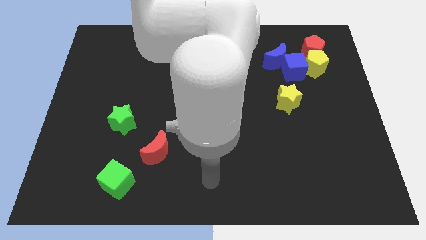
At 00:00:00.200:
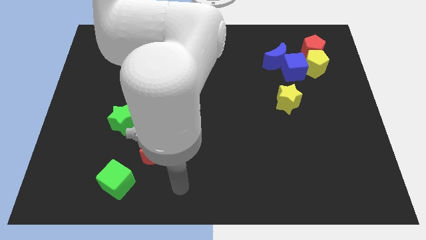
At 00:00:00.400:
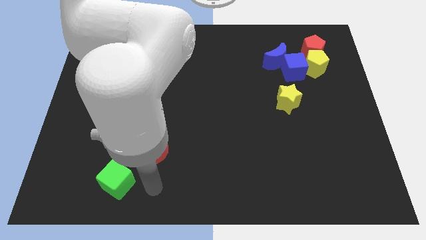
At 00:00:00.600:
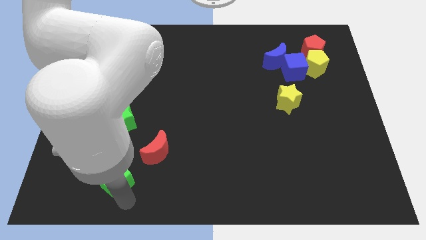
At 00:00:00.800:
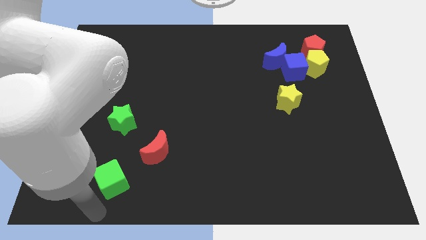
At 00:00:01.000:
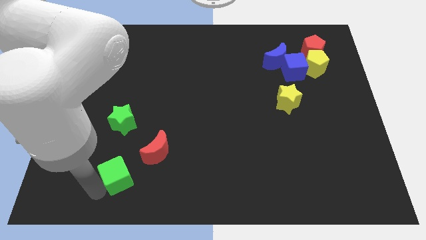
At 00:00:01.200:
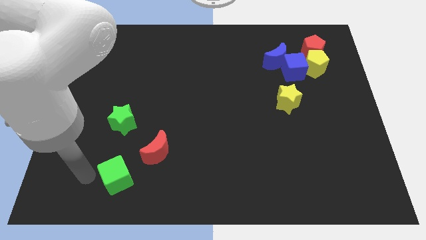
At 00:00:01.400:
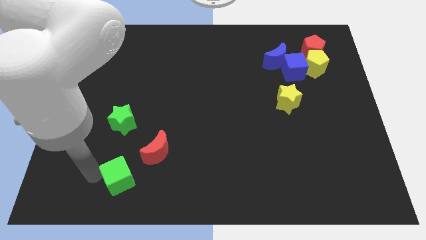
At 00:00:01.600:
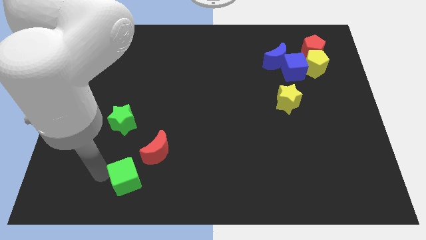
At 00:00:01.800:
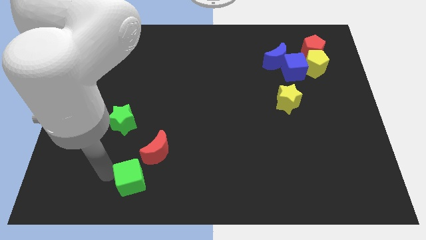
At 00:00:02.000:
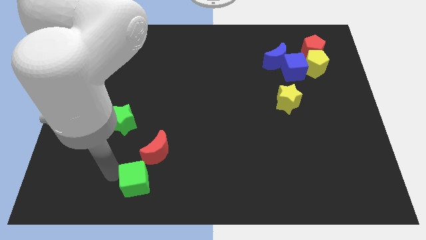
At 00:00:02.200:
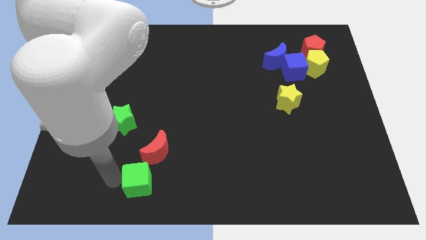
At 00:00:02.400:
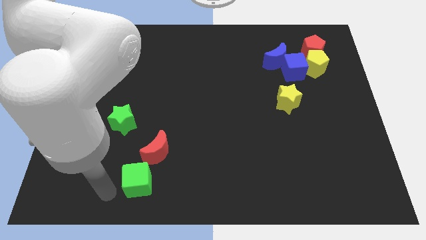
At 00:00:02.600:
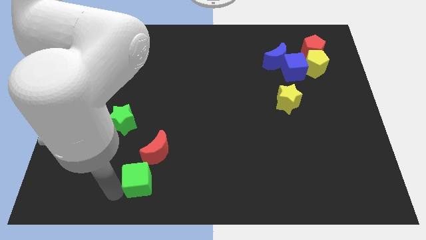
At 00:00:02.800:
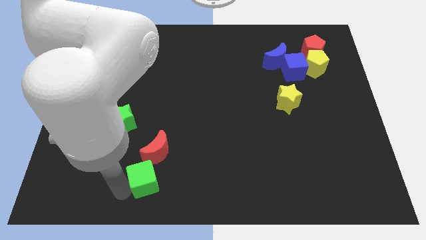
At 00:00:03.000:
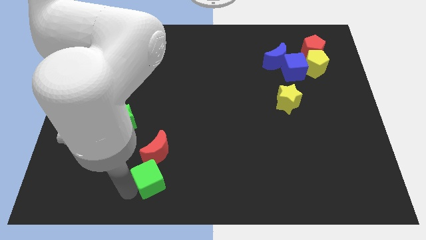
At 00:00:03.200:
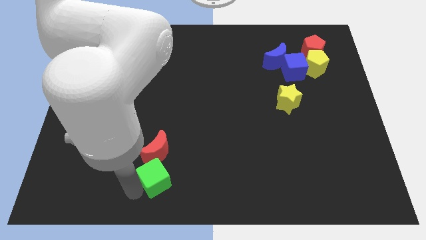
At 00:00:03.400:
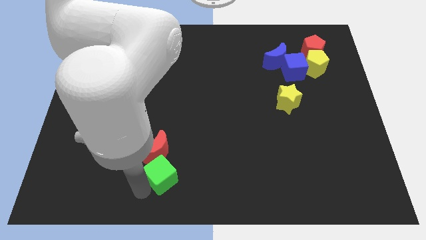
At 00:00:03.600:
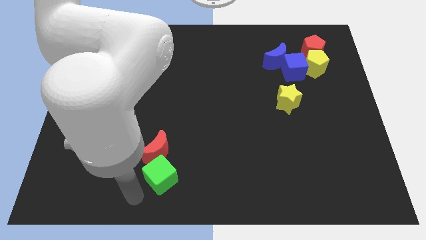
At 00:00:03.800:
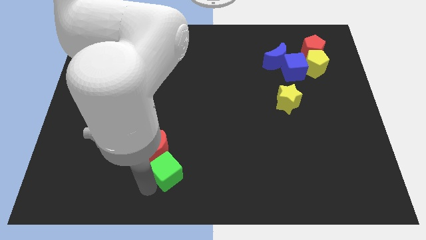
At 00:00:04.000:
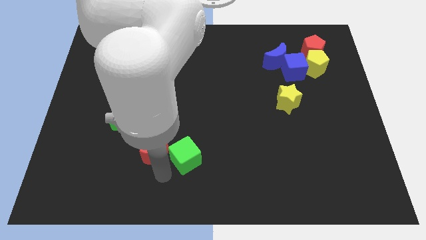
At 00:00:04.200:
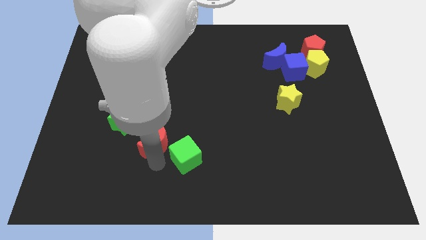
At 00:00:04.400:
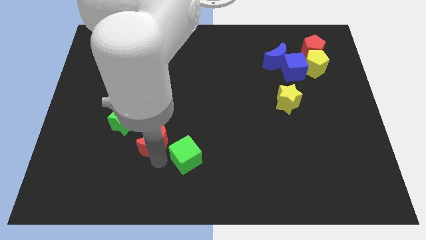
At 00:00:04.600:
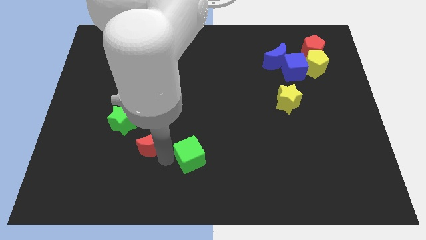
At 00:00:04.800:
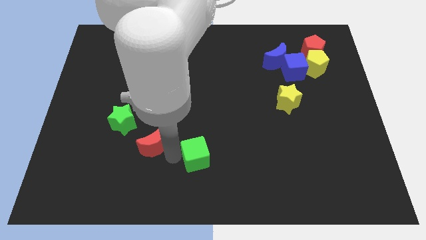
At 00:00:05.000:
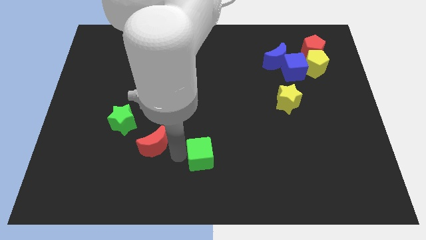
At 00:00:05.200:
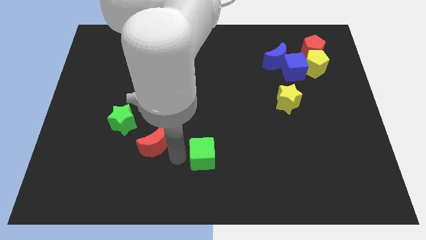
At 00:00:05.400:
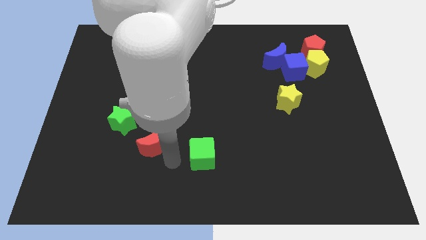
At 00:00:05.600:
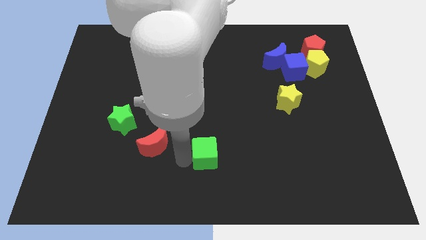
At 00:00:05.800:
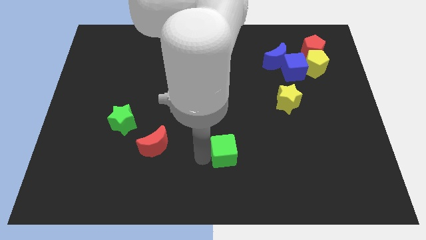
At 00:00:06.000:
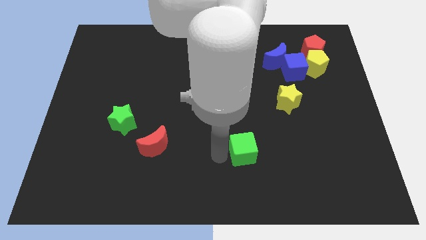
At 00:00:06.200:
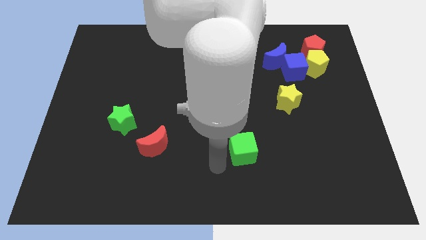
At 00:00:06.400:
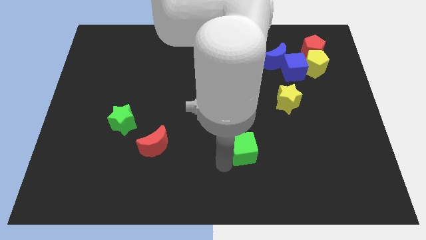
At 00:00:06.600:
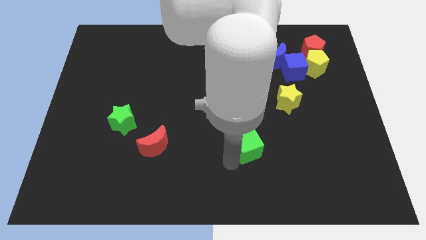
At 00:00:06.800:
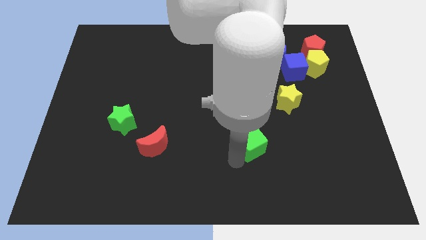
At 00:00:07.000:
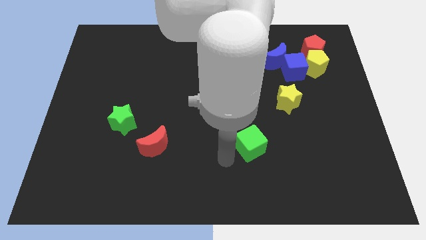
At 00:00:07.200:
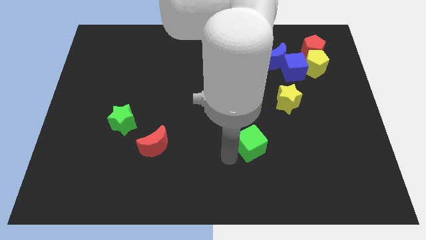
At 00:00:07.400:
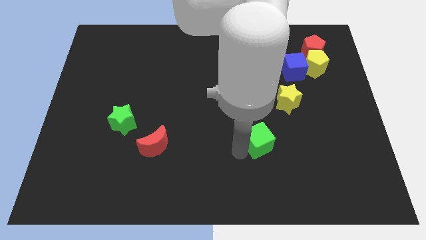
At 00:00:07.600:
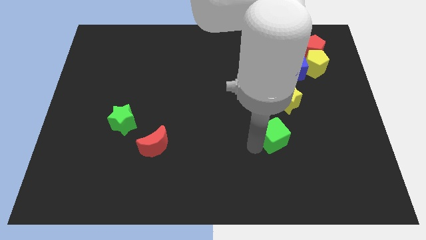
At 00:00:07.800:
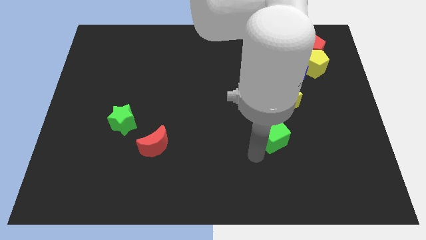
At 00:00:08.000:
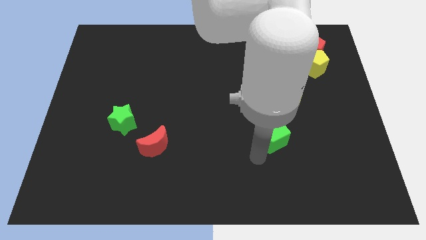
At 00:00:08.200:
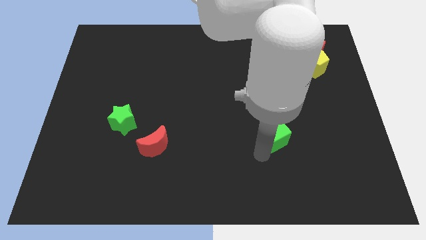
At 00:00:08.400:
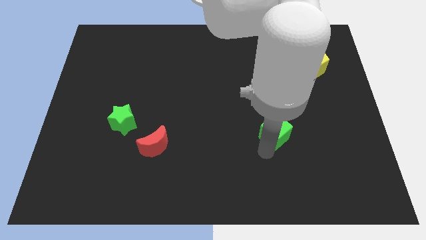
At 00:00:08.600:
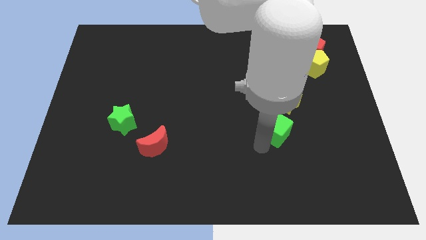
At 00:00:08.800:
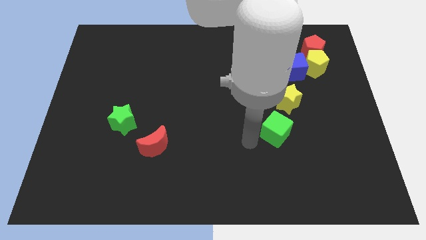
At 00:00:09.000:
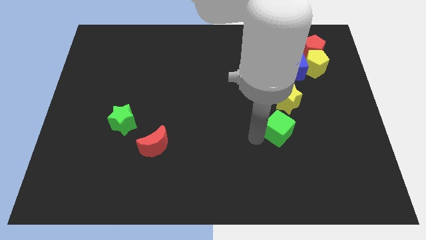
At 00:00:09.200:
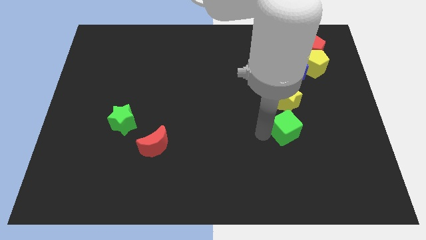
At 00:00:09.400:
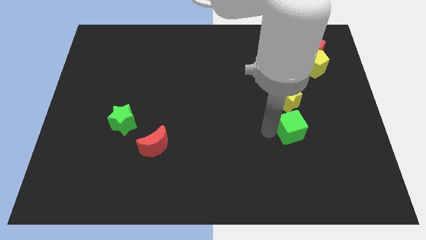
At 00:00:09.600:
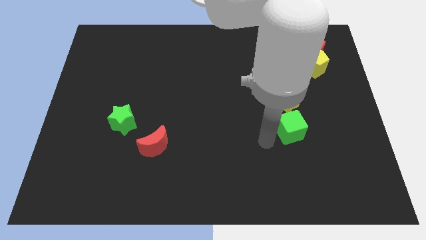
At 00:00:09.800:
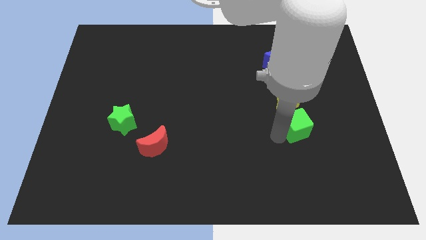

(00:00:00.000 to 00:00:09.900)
slide the green cube to the bottom right side of the yellow star

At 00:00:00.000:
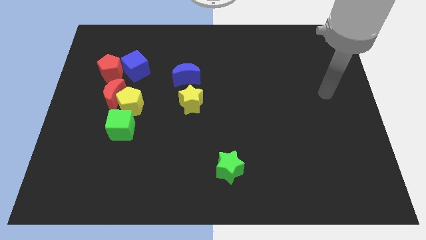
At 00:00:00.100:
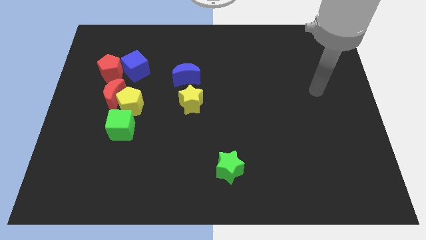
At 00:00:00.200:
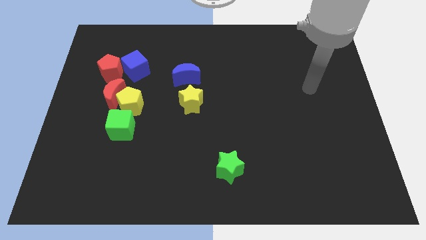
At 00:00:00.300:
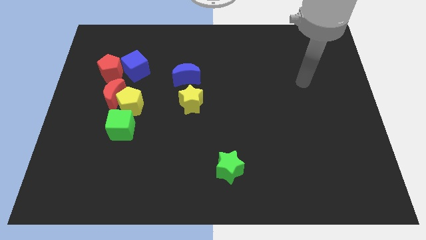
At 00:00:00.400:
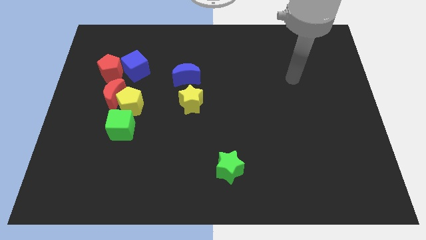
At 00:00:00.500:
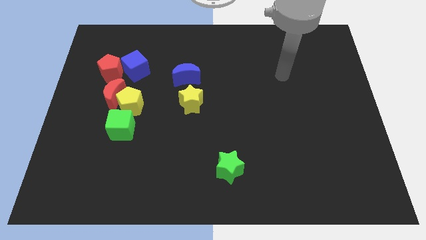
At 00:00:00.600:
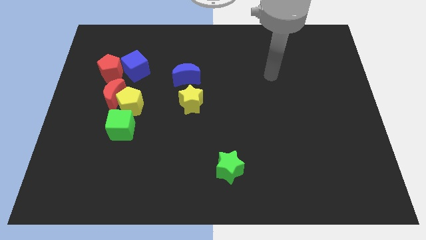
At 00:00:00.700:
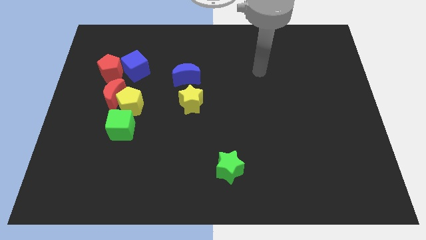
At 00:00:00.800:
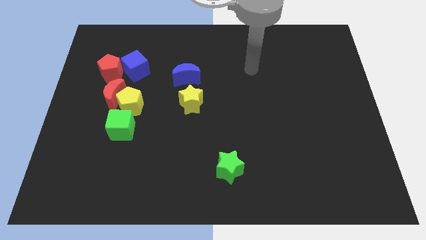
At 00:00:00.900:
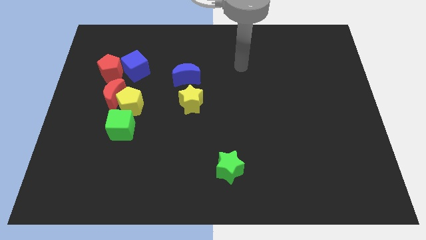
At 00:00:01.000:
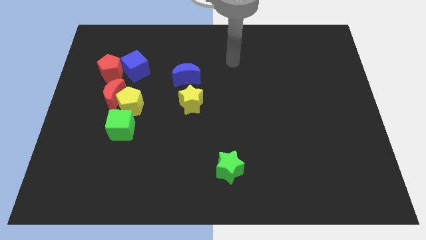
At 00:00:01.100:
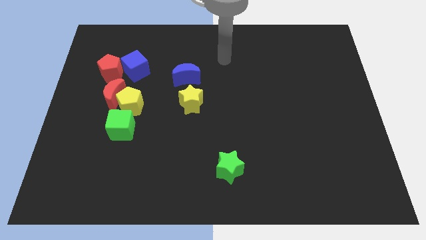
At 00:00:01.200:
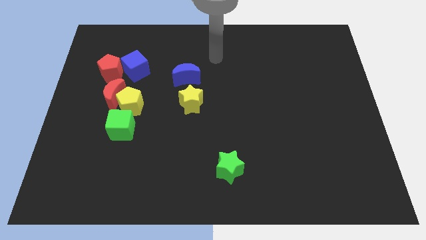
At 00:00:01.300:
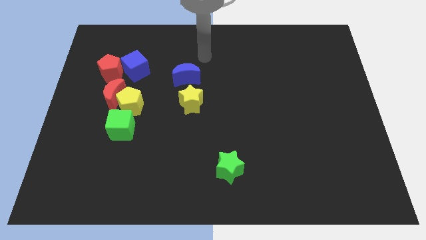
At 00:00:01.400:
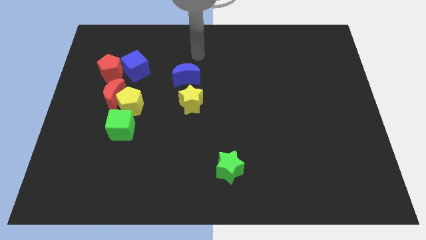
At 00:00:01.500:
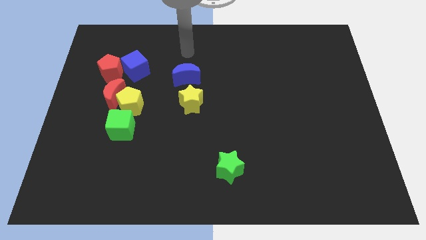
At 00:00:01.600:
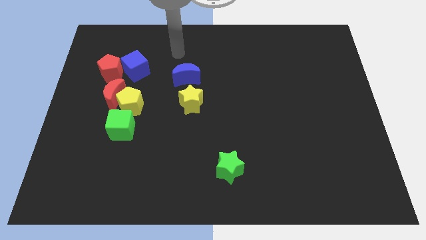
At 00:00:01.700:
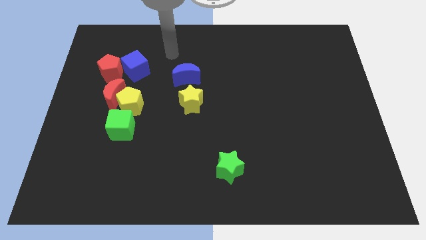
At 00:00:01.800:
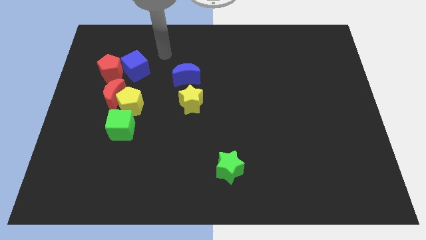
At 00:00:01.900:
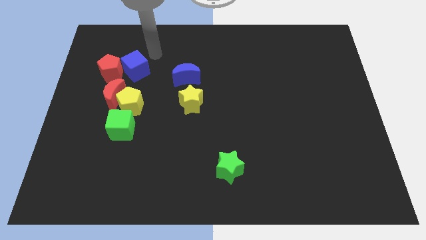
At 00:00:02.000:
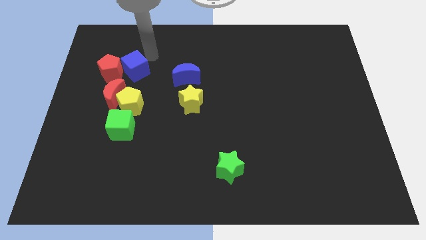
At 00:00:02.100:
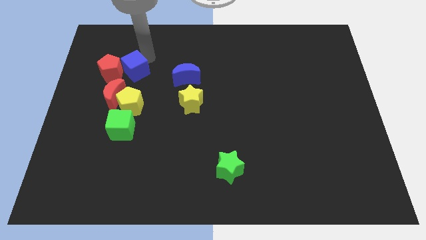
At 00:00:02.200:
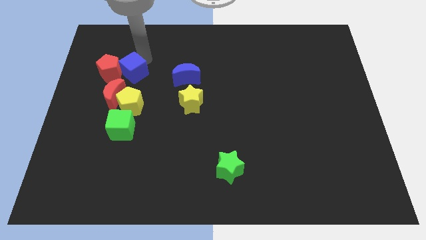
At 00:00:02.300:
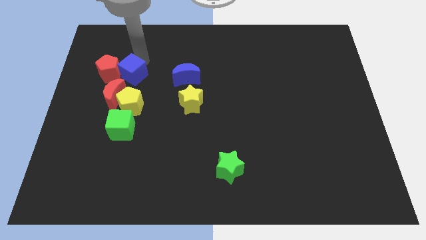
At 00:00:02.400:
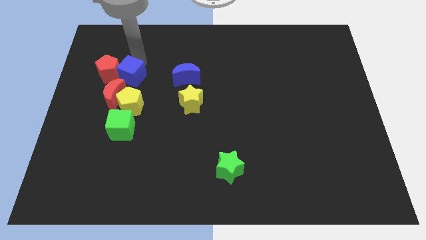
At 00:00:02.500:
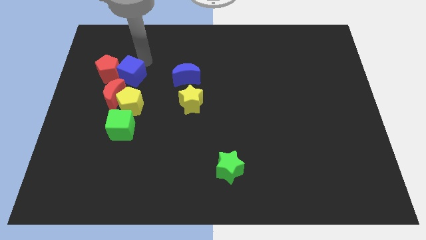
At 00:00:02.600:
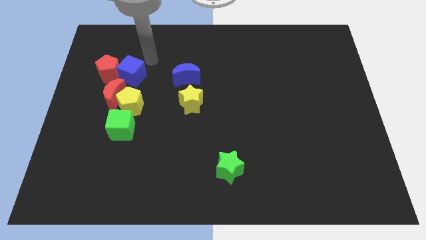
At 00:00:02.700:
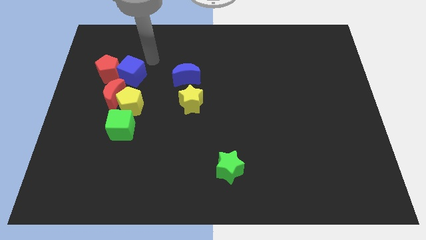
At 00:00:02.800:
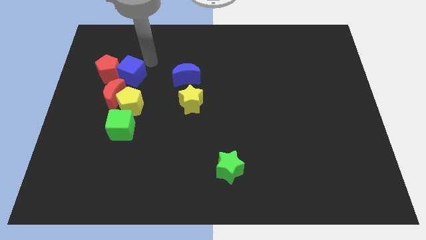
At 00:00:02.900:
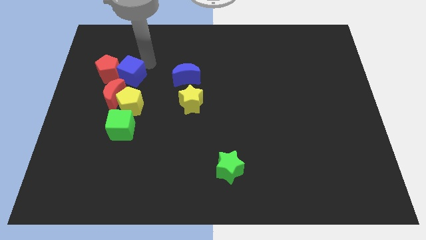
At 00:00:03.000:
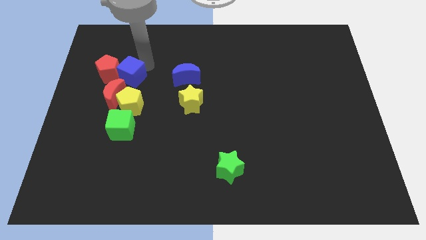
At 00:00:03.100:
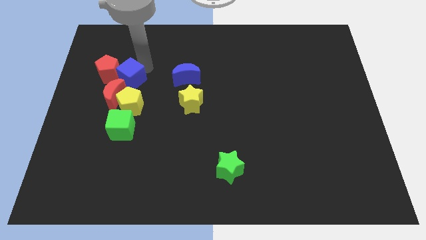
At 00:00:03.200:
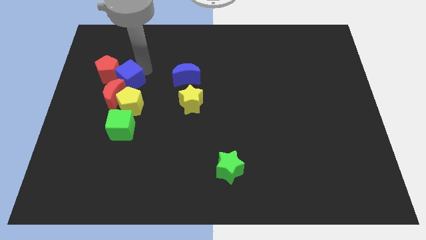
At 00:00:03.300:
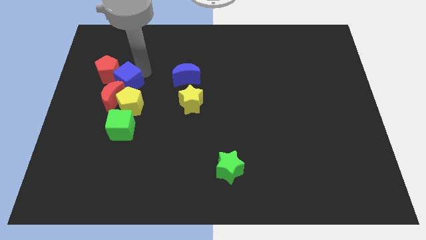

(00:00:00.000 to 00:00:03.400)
move the blue cube to the top left side of the yellow pentagon
